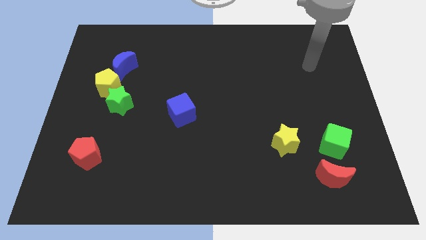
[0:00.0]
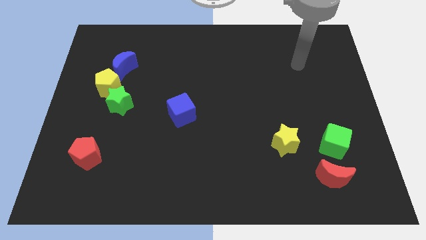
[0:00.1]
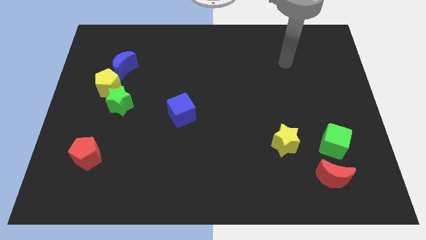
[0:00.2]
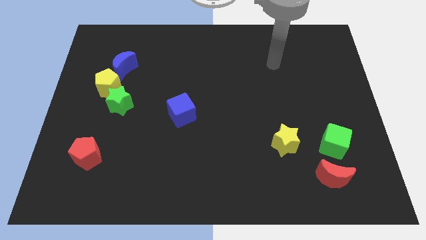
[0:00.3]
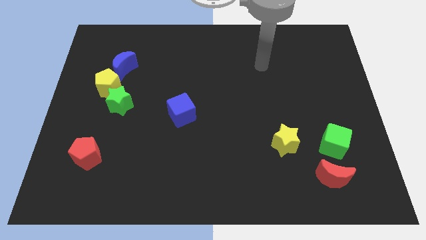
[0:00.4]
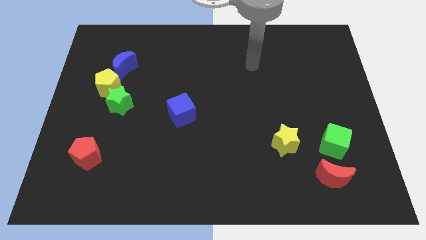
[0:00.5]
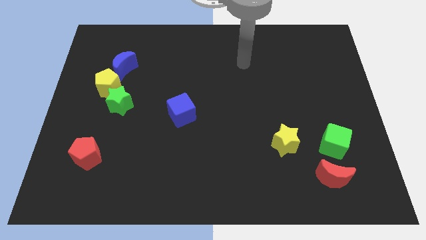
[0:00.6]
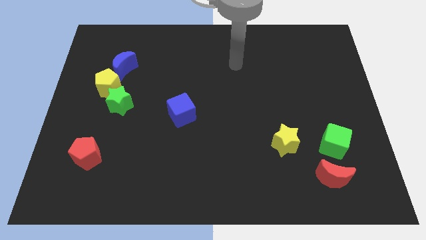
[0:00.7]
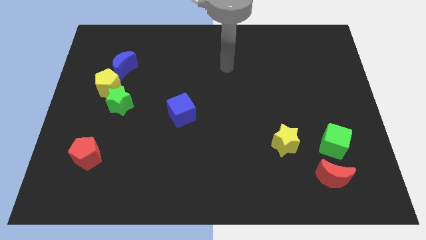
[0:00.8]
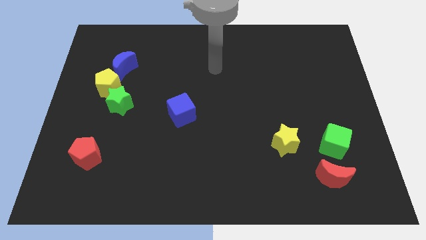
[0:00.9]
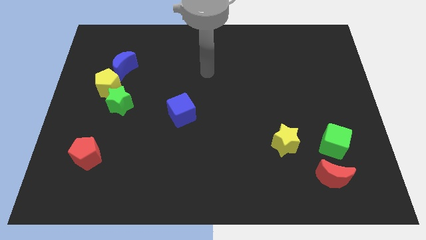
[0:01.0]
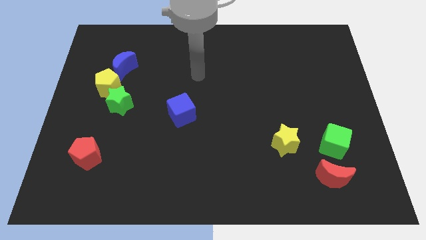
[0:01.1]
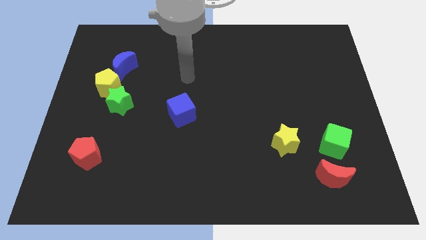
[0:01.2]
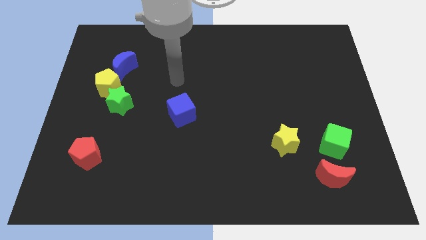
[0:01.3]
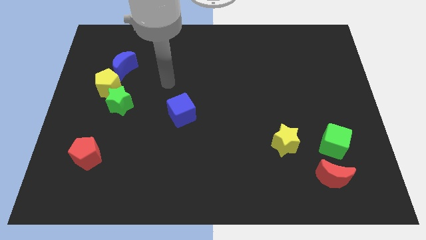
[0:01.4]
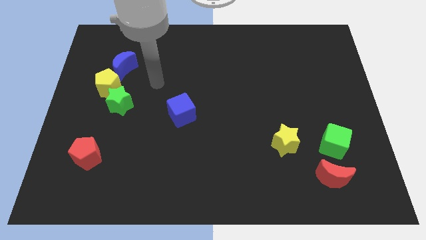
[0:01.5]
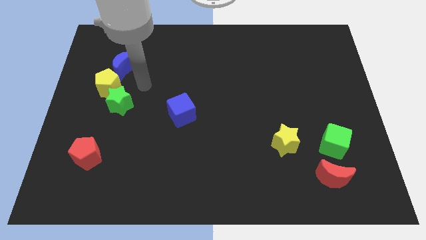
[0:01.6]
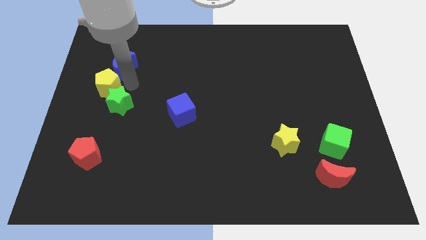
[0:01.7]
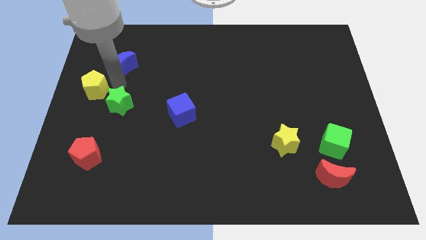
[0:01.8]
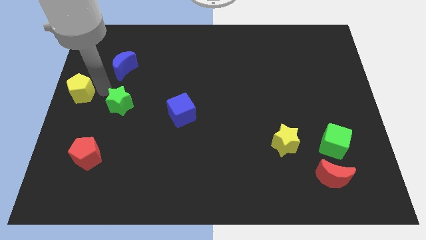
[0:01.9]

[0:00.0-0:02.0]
separate the green star from the yellow pentagon

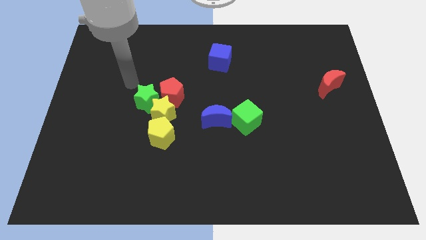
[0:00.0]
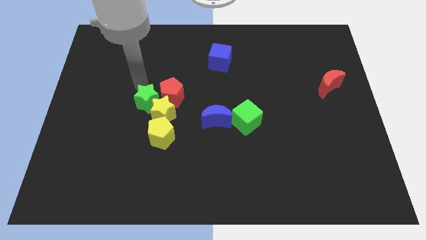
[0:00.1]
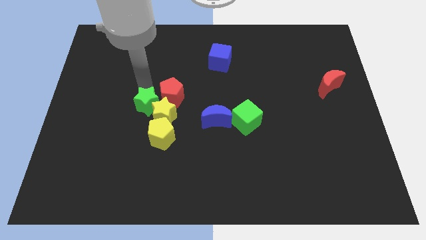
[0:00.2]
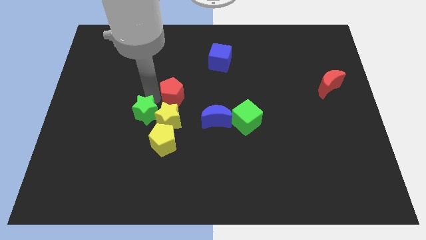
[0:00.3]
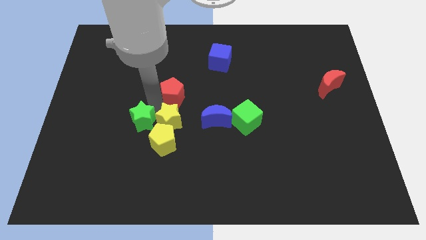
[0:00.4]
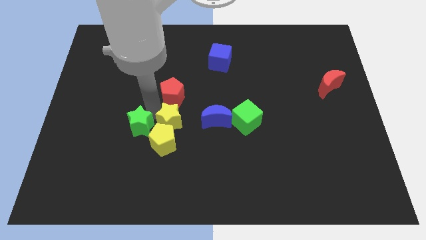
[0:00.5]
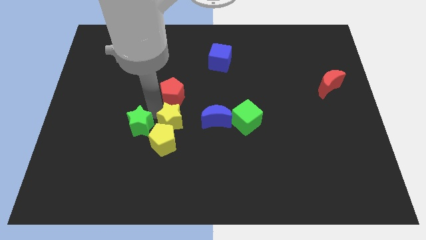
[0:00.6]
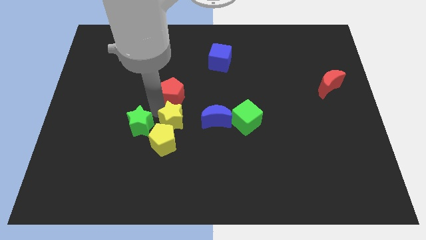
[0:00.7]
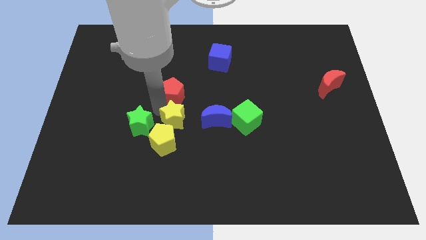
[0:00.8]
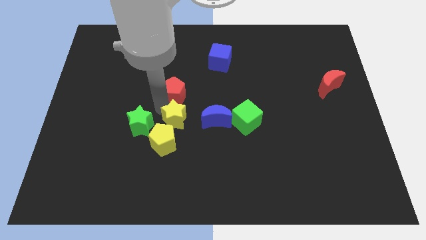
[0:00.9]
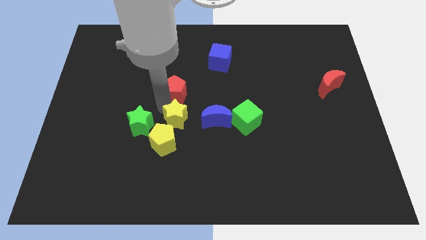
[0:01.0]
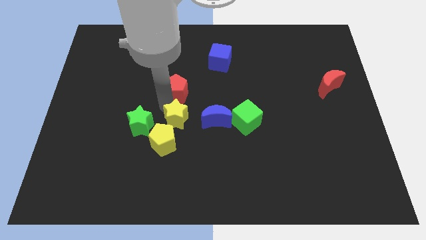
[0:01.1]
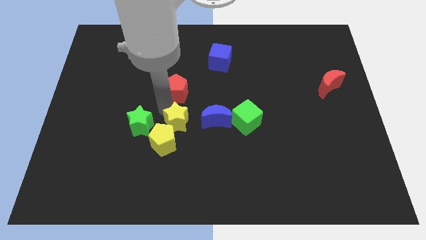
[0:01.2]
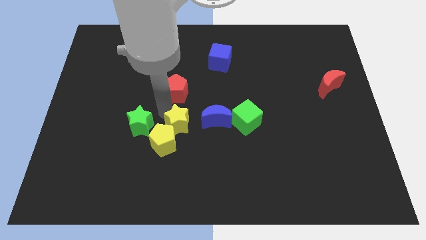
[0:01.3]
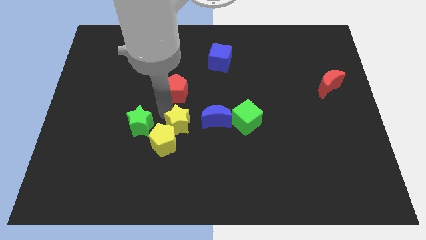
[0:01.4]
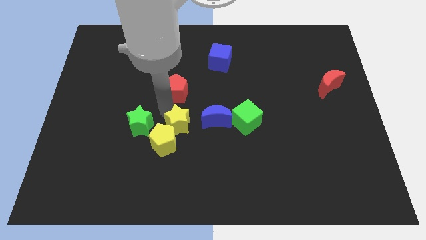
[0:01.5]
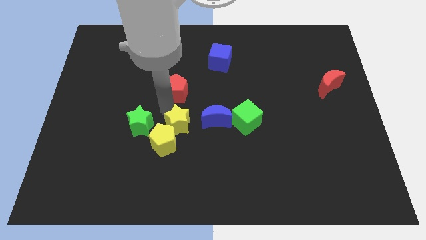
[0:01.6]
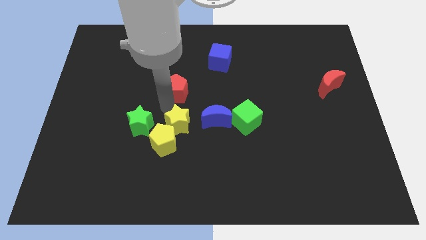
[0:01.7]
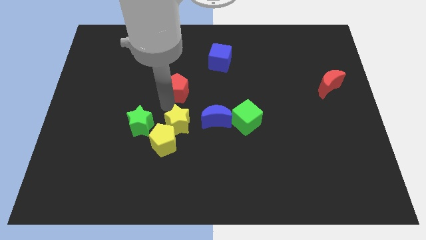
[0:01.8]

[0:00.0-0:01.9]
separate the red pentagon from the green star and yellow star

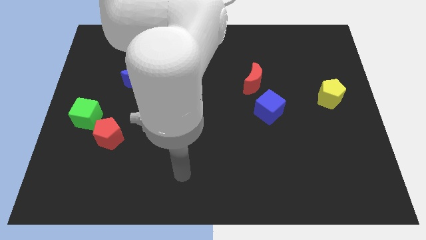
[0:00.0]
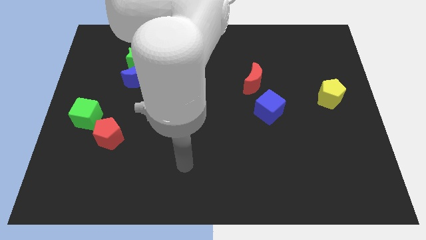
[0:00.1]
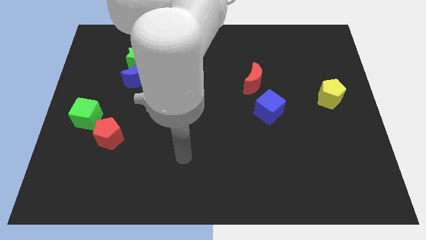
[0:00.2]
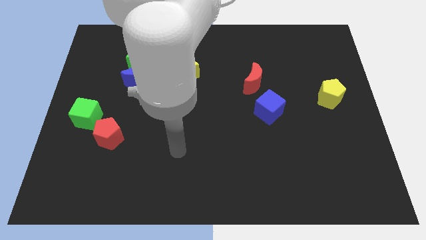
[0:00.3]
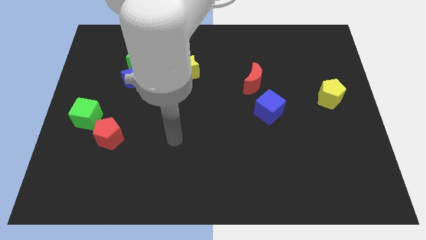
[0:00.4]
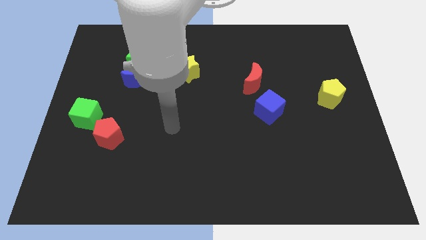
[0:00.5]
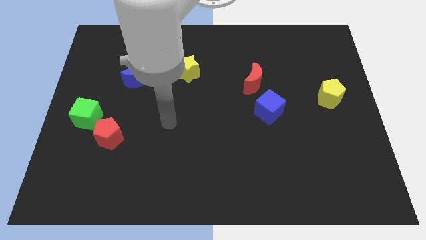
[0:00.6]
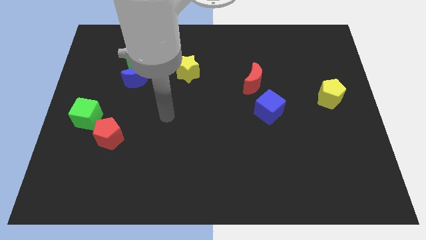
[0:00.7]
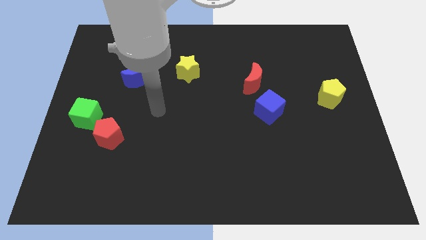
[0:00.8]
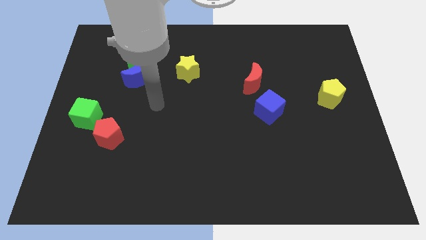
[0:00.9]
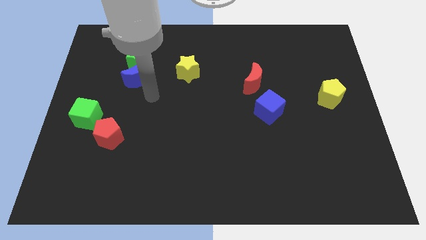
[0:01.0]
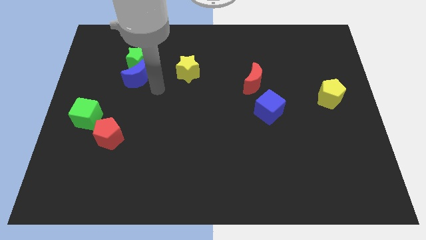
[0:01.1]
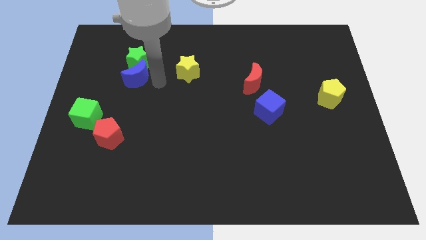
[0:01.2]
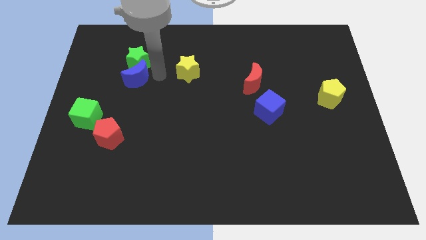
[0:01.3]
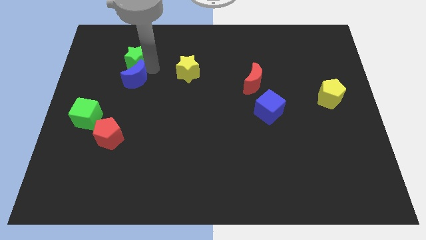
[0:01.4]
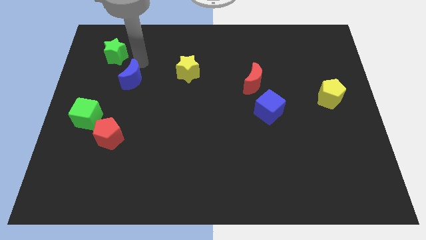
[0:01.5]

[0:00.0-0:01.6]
move the blue moon away from the green star

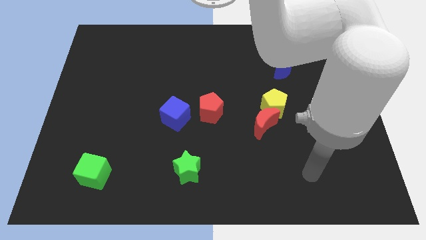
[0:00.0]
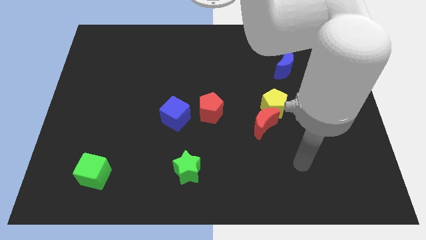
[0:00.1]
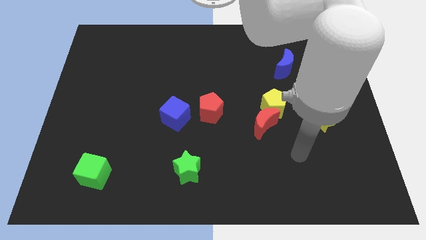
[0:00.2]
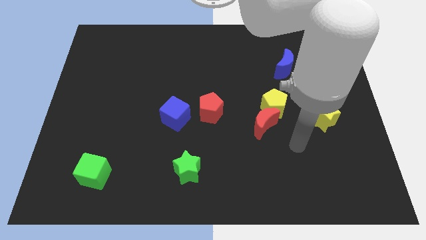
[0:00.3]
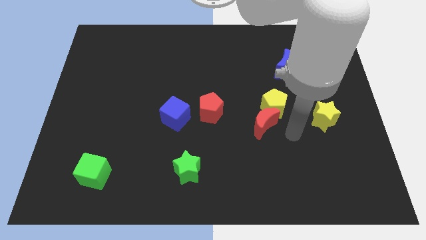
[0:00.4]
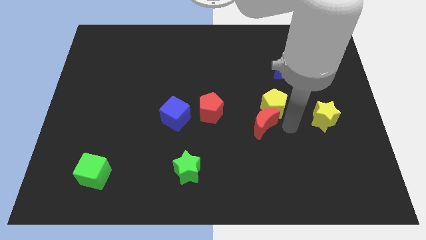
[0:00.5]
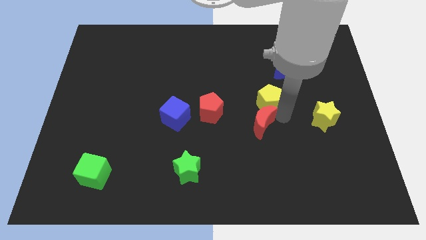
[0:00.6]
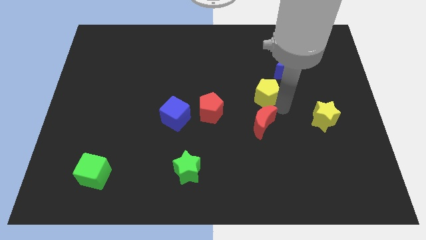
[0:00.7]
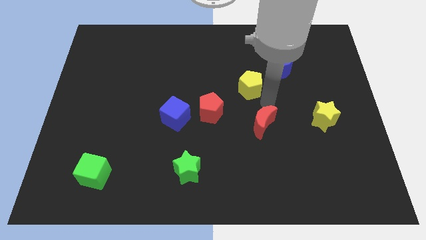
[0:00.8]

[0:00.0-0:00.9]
separate the red moon from the yellow pentagon

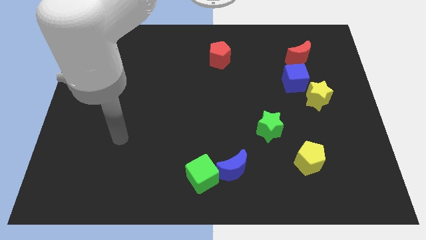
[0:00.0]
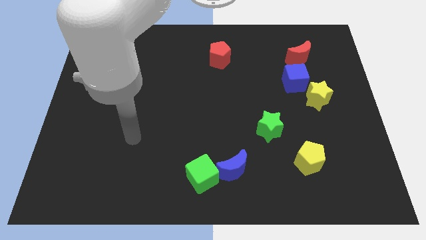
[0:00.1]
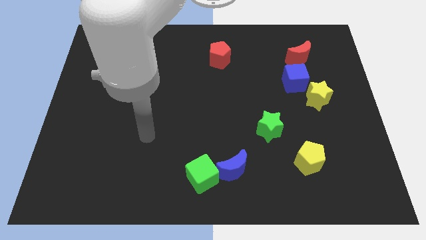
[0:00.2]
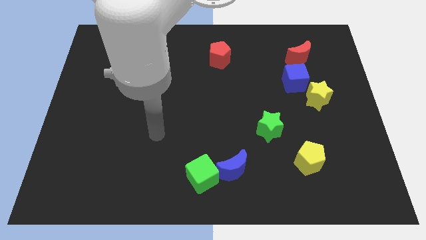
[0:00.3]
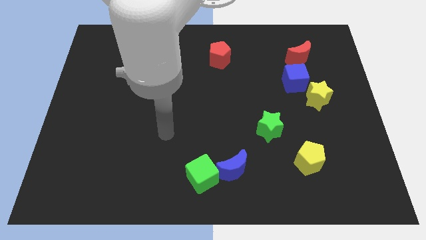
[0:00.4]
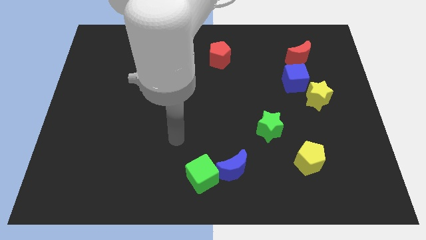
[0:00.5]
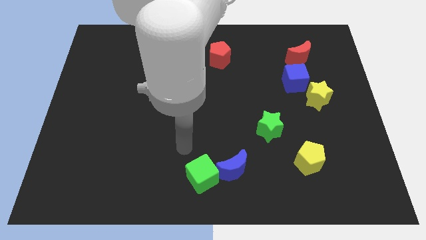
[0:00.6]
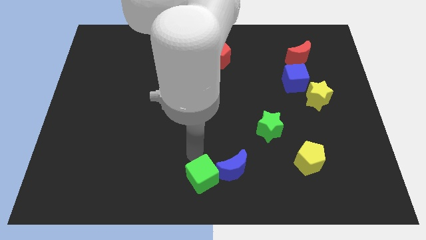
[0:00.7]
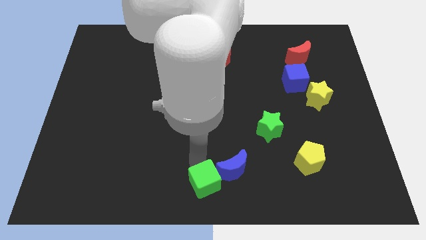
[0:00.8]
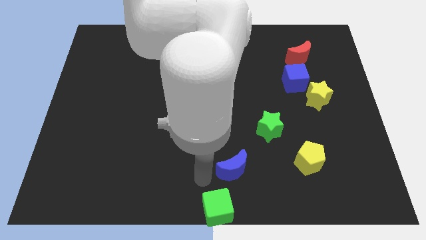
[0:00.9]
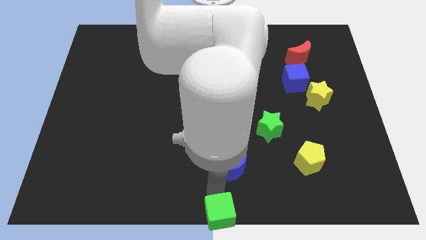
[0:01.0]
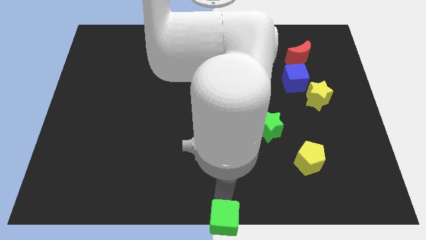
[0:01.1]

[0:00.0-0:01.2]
separate the blue moon from the green cube

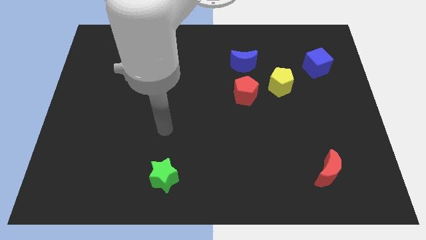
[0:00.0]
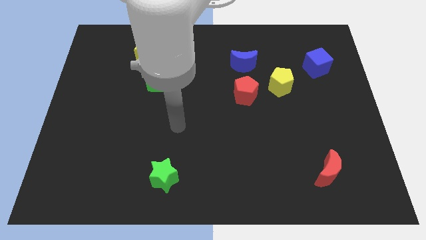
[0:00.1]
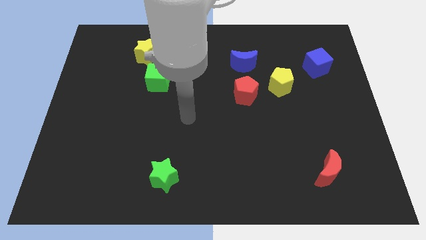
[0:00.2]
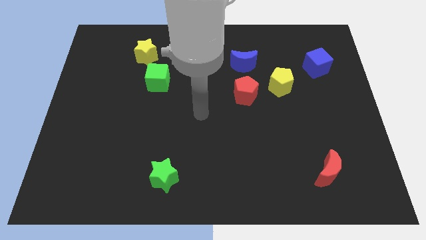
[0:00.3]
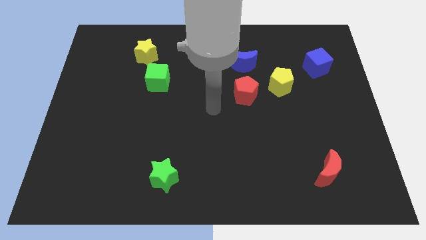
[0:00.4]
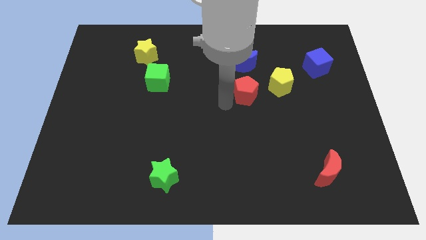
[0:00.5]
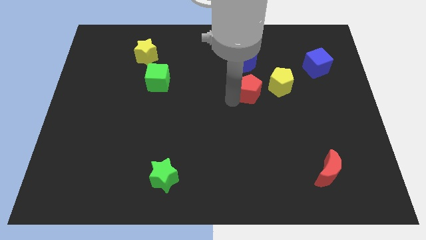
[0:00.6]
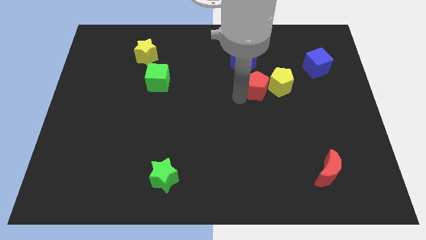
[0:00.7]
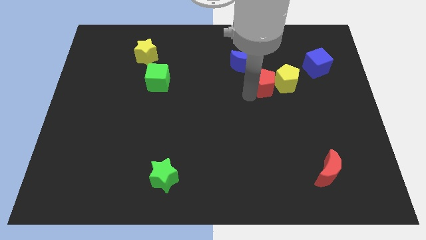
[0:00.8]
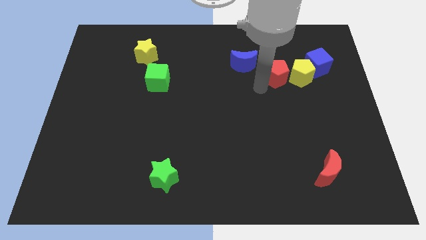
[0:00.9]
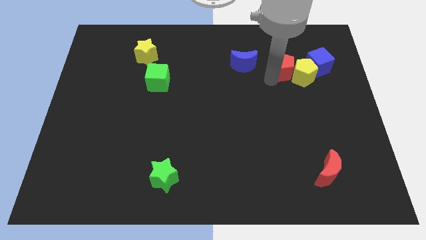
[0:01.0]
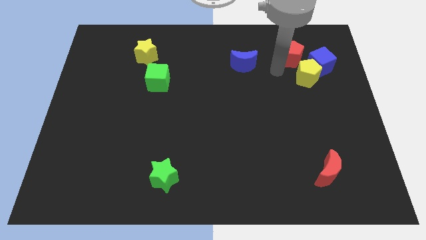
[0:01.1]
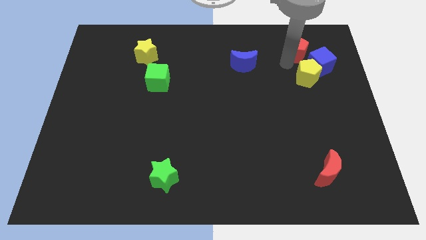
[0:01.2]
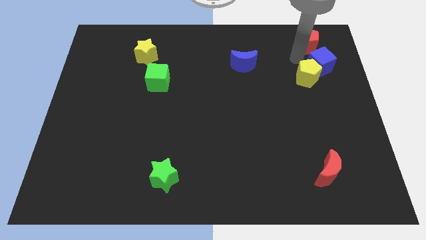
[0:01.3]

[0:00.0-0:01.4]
pull the yellow pentagon apart from the red pentagon

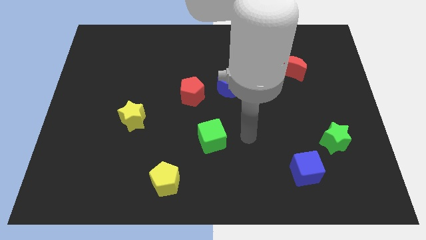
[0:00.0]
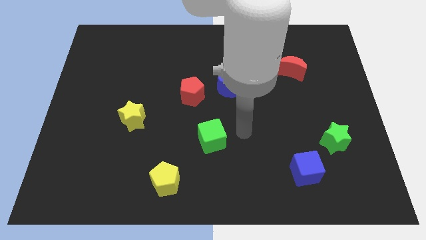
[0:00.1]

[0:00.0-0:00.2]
move the red pentagon away from the blue moon
